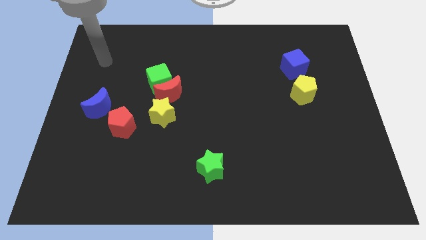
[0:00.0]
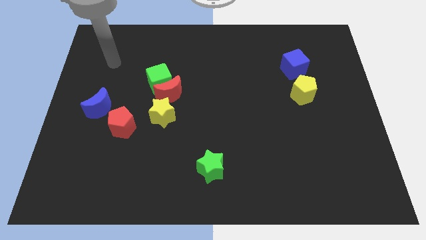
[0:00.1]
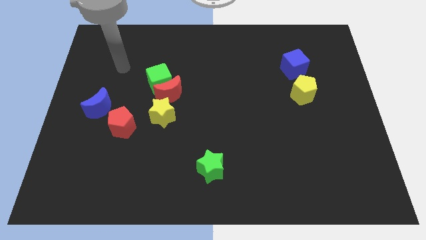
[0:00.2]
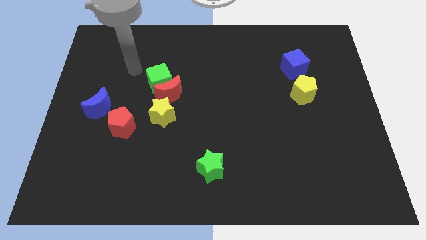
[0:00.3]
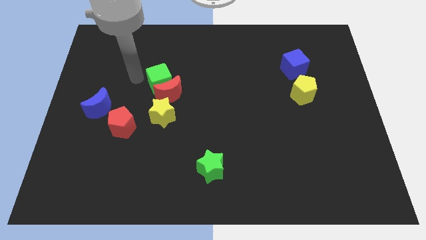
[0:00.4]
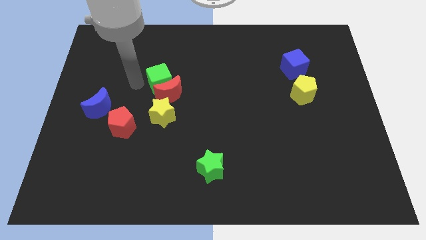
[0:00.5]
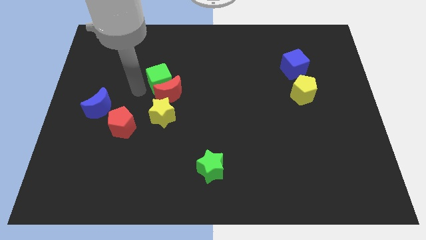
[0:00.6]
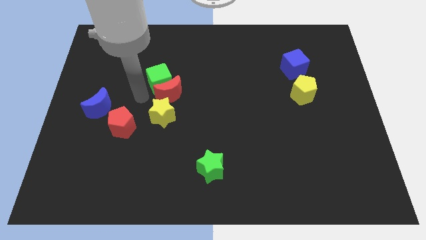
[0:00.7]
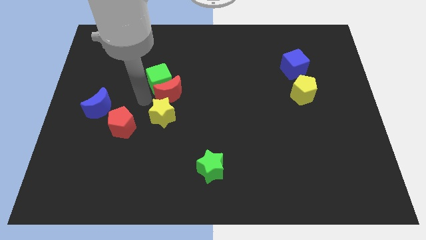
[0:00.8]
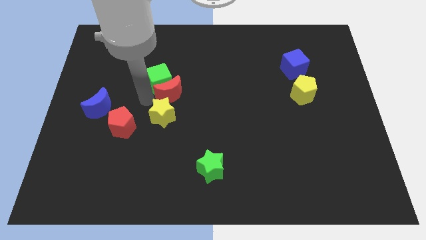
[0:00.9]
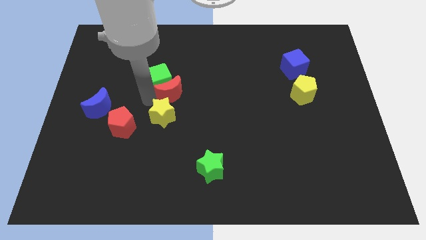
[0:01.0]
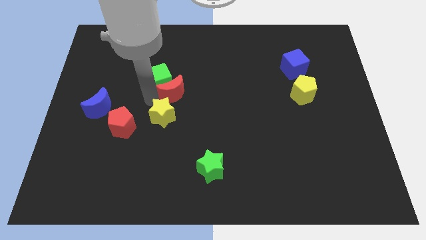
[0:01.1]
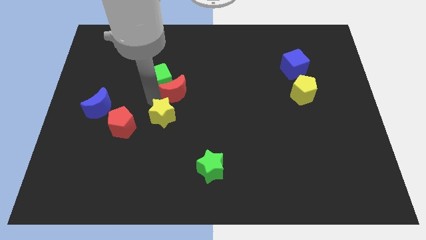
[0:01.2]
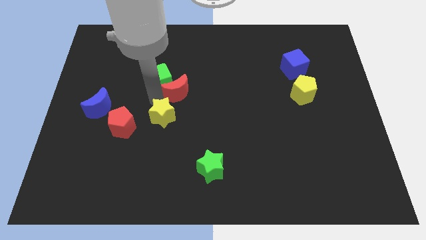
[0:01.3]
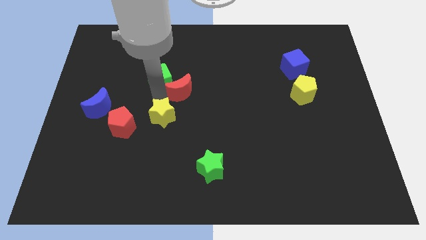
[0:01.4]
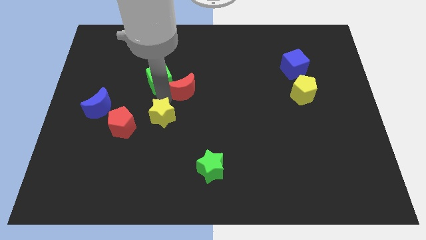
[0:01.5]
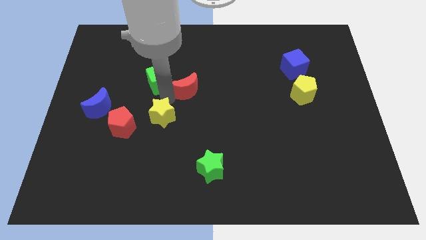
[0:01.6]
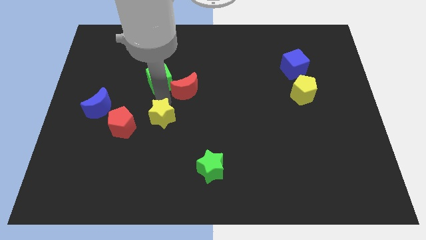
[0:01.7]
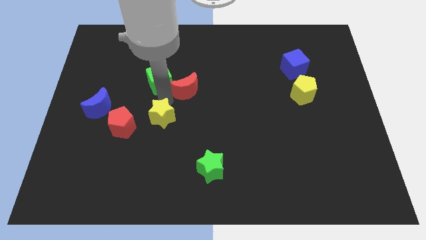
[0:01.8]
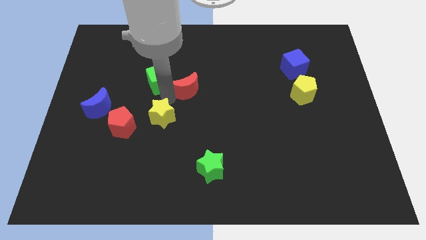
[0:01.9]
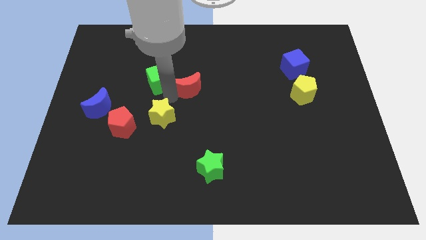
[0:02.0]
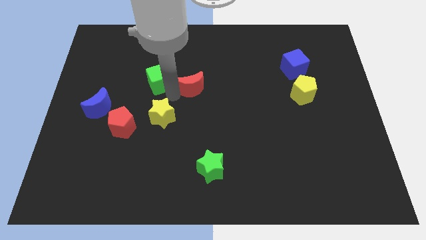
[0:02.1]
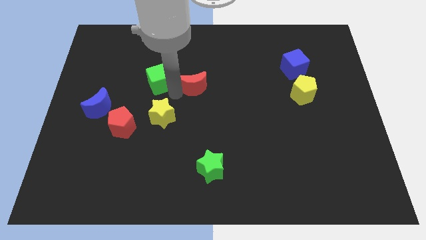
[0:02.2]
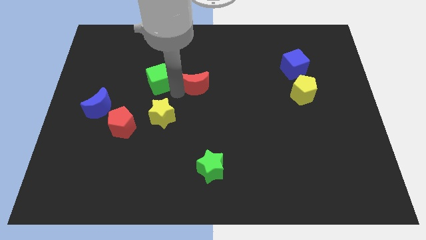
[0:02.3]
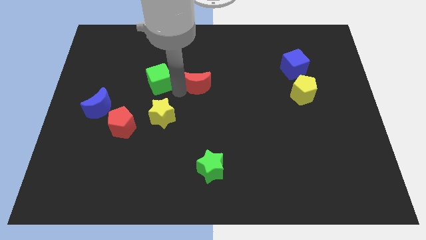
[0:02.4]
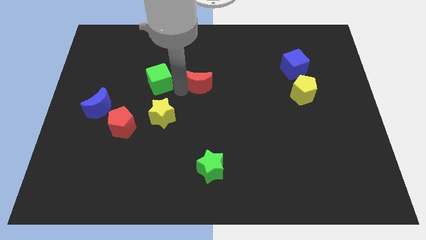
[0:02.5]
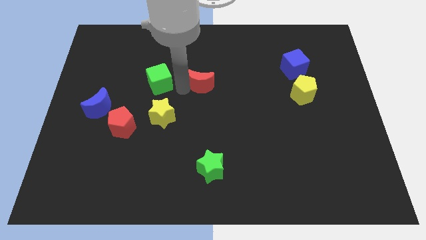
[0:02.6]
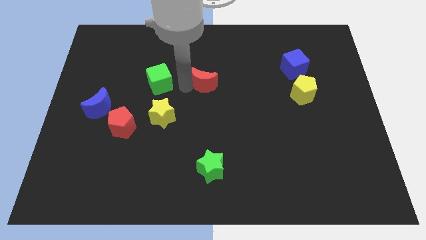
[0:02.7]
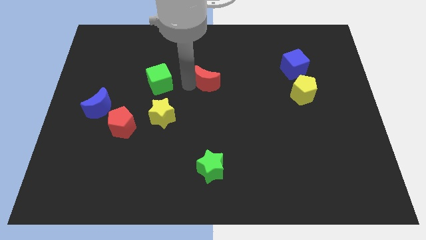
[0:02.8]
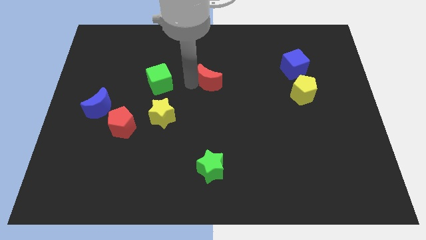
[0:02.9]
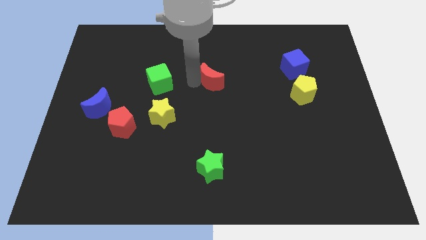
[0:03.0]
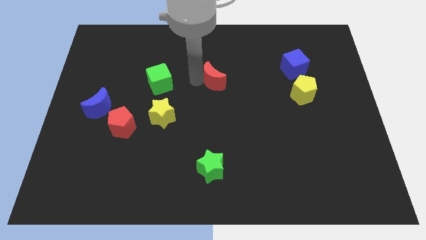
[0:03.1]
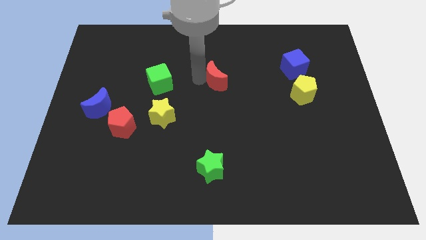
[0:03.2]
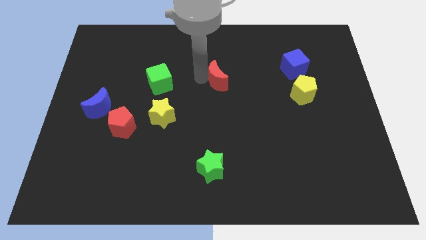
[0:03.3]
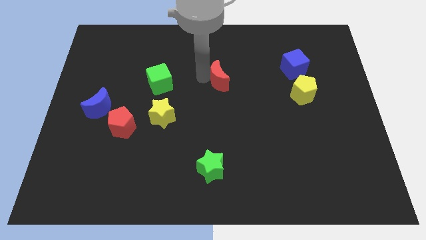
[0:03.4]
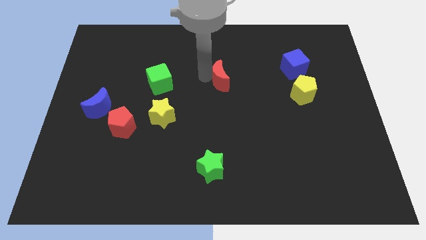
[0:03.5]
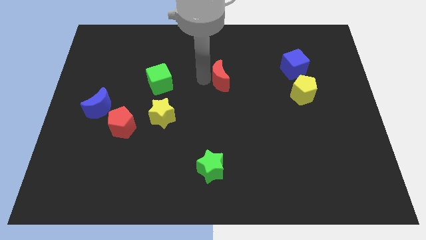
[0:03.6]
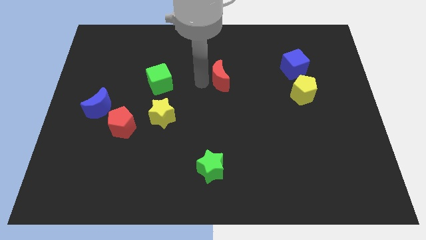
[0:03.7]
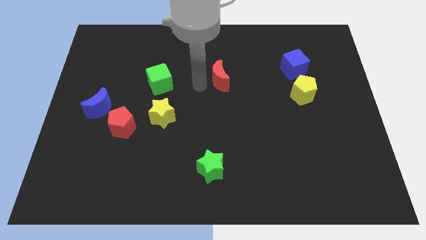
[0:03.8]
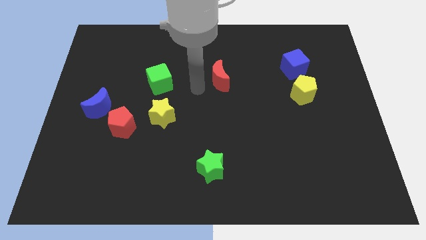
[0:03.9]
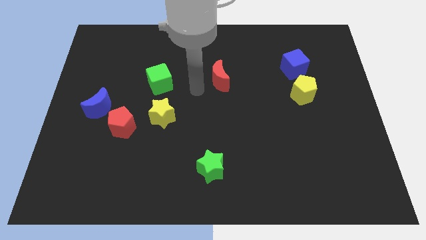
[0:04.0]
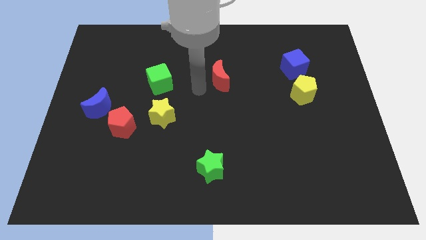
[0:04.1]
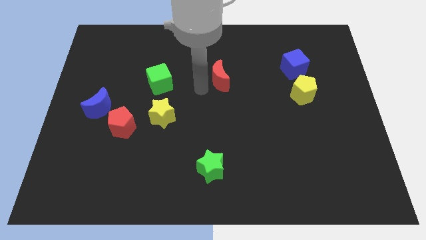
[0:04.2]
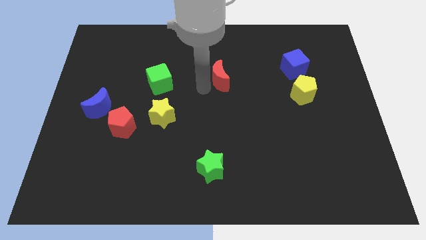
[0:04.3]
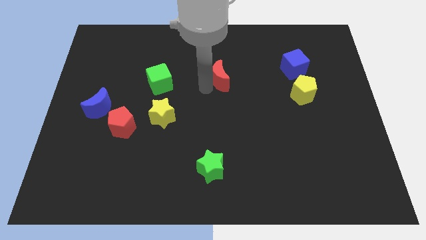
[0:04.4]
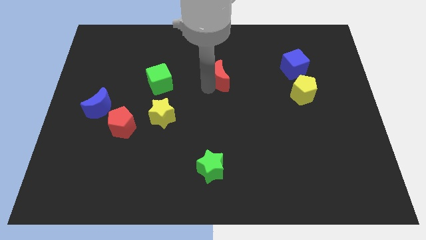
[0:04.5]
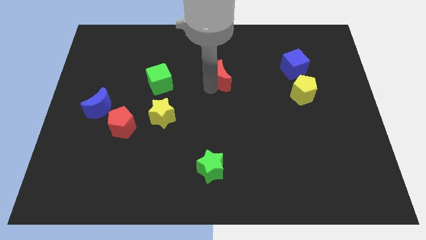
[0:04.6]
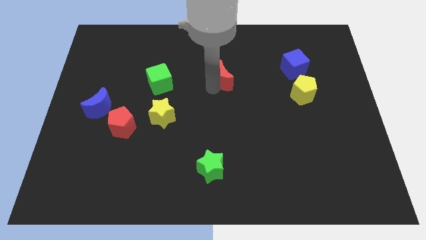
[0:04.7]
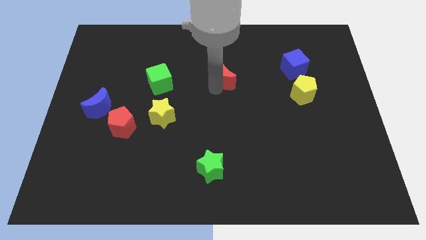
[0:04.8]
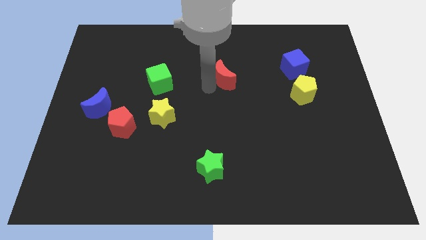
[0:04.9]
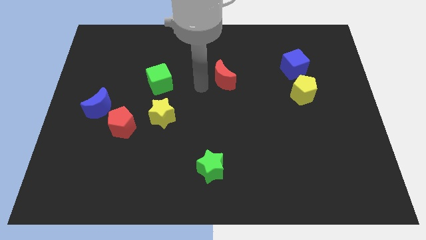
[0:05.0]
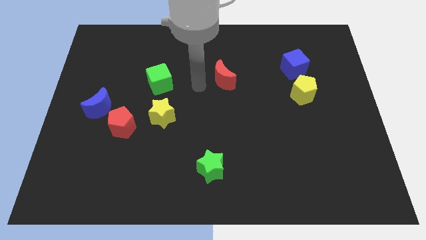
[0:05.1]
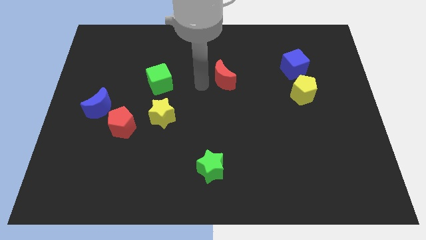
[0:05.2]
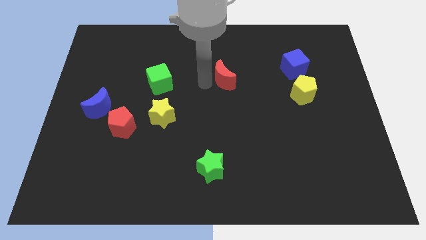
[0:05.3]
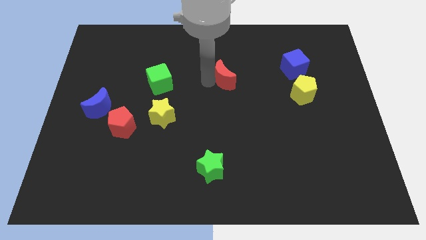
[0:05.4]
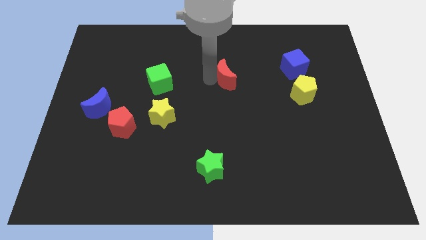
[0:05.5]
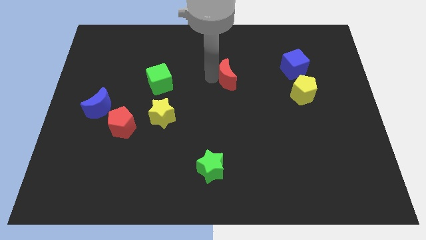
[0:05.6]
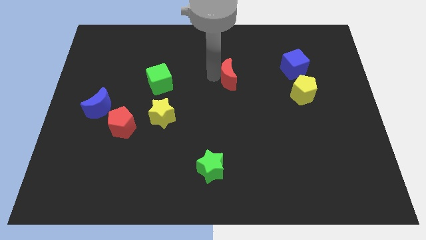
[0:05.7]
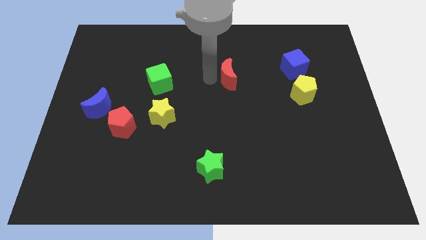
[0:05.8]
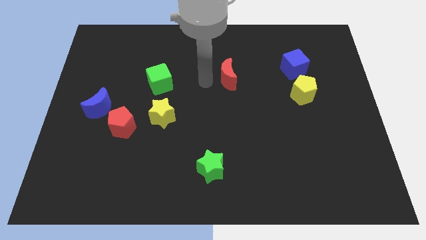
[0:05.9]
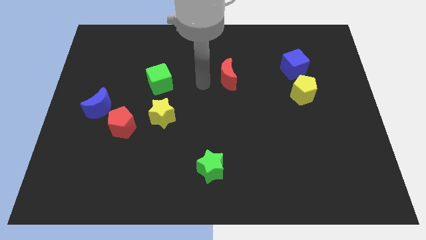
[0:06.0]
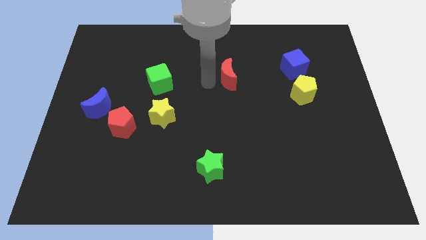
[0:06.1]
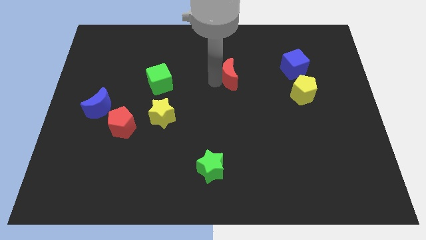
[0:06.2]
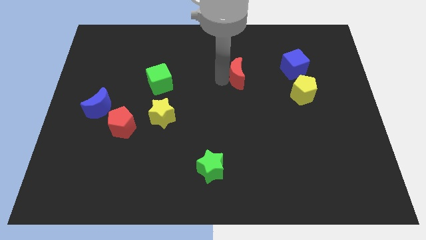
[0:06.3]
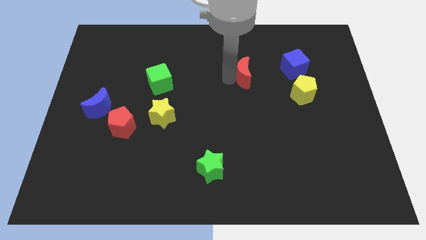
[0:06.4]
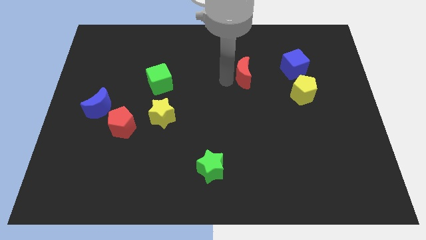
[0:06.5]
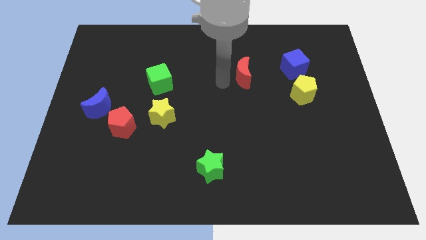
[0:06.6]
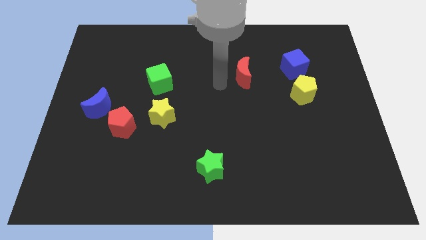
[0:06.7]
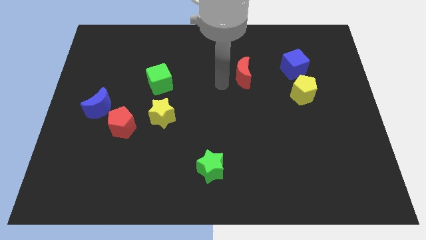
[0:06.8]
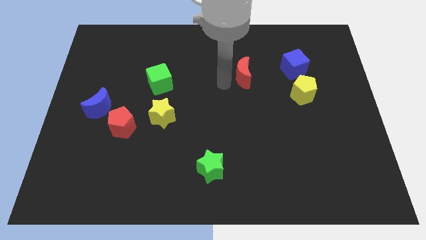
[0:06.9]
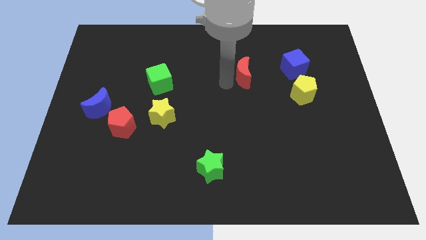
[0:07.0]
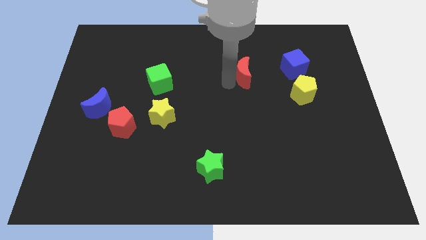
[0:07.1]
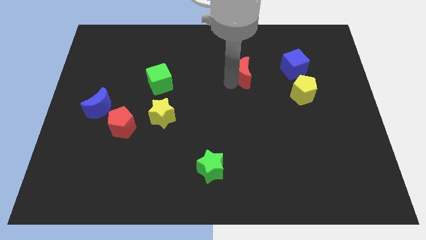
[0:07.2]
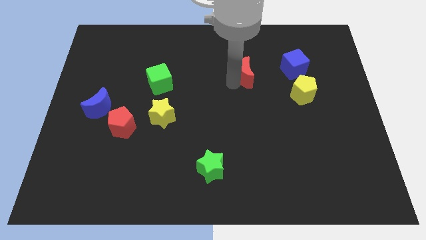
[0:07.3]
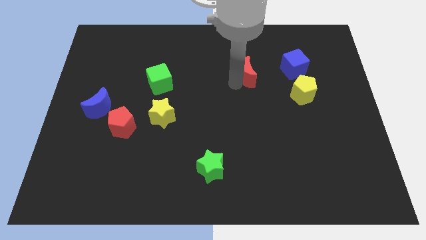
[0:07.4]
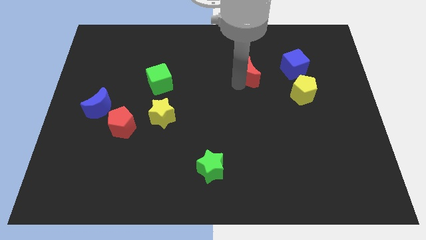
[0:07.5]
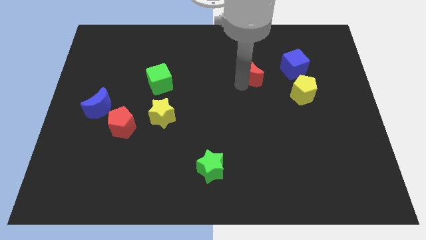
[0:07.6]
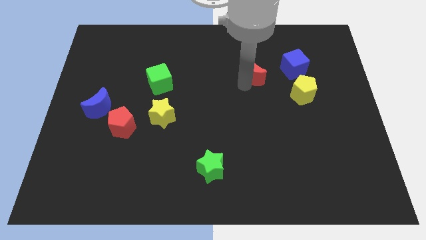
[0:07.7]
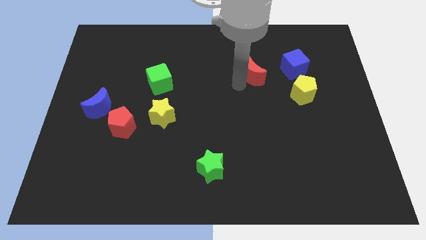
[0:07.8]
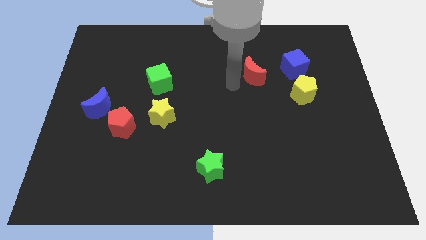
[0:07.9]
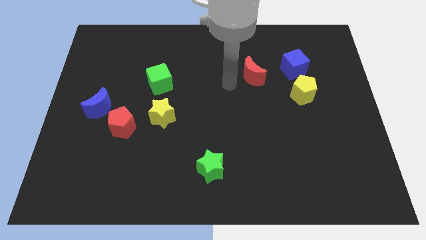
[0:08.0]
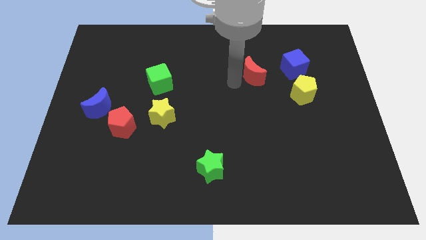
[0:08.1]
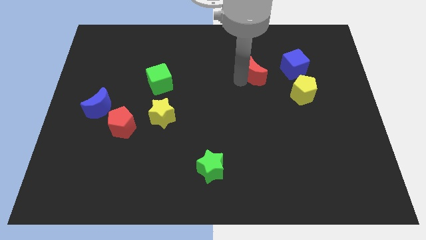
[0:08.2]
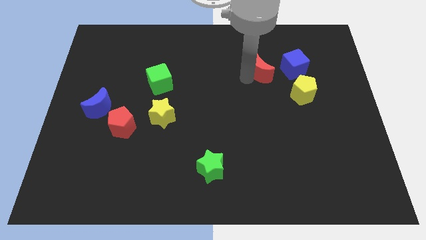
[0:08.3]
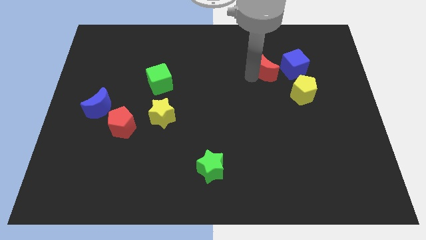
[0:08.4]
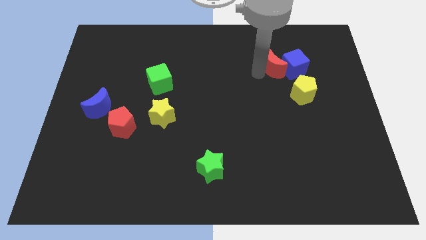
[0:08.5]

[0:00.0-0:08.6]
push the red moon next to the blue cube
